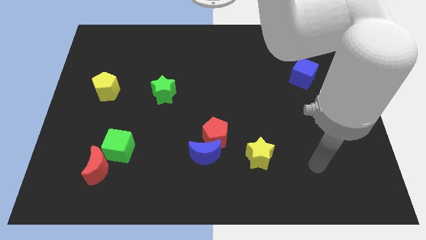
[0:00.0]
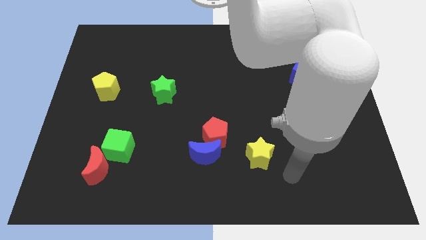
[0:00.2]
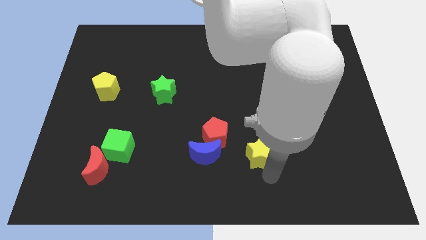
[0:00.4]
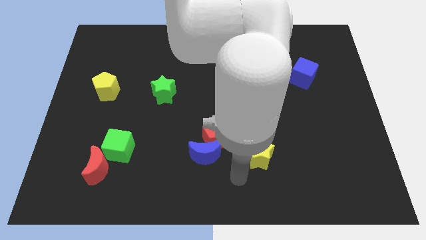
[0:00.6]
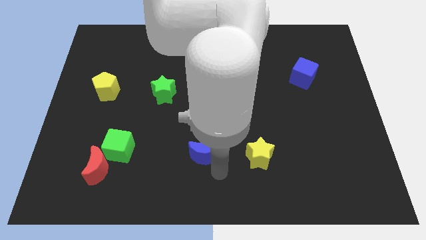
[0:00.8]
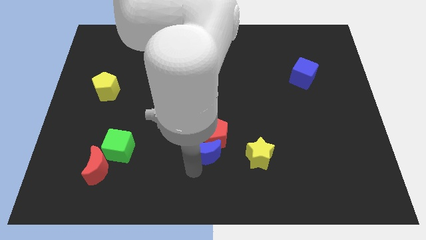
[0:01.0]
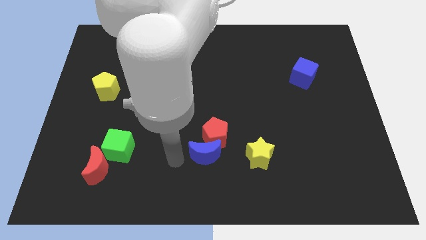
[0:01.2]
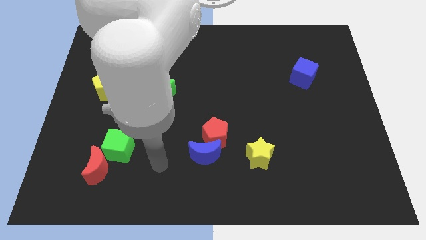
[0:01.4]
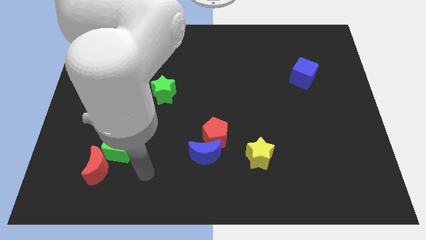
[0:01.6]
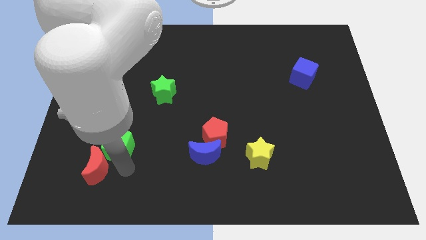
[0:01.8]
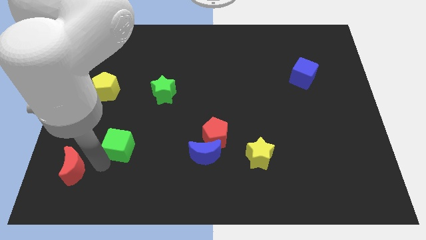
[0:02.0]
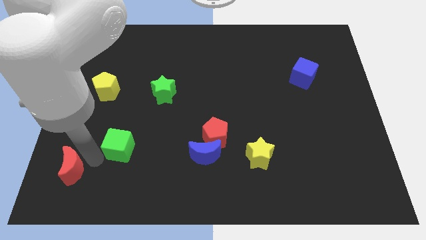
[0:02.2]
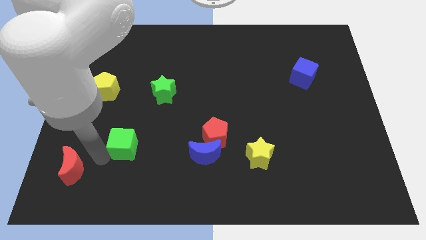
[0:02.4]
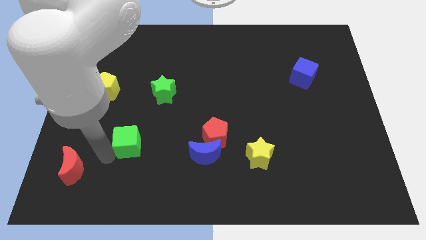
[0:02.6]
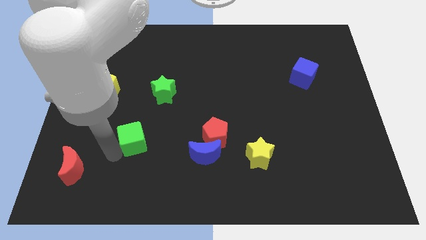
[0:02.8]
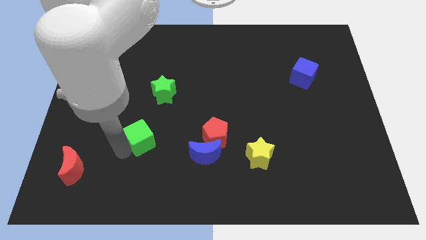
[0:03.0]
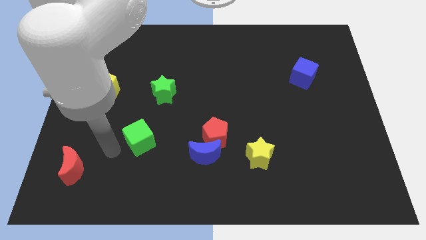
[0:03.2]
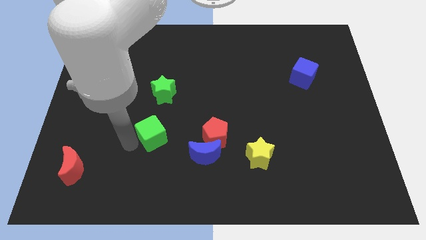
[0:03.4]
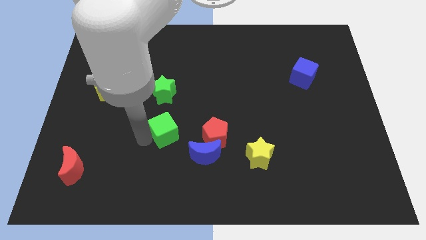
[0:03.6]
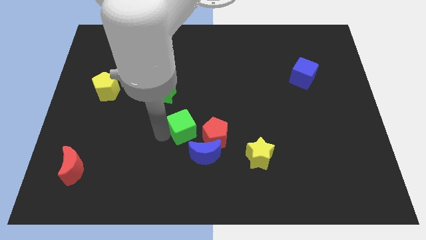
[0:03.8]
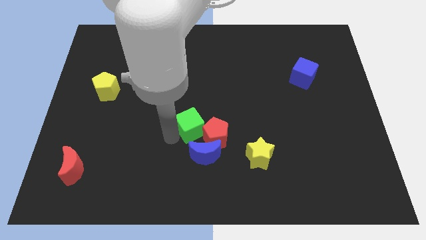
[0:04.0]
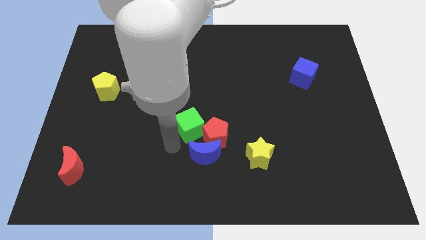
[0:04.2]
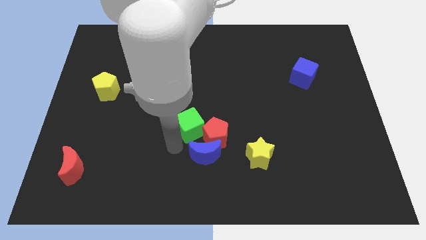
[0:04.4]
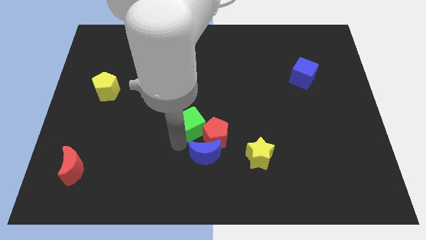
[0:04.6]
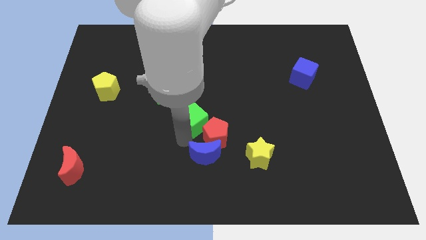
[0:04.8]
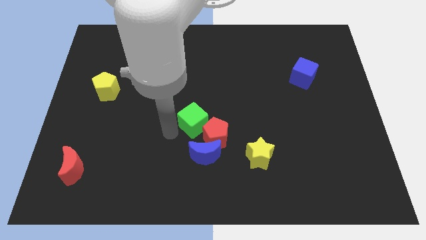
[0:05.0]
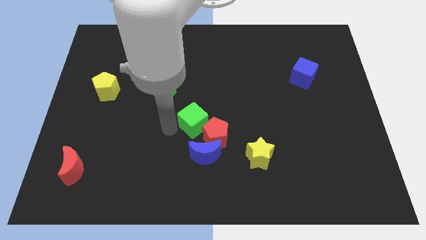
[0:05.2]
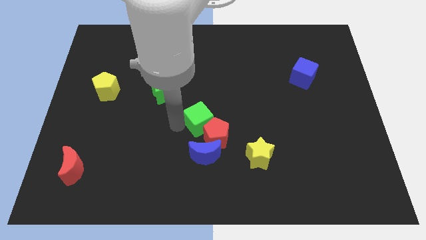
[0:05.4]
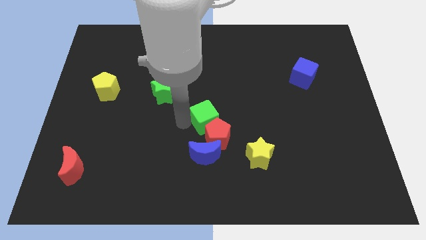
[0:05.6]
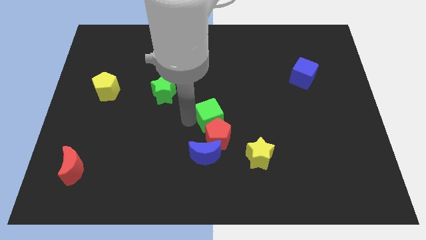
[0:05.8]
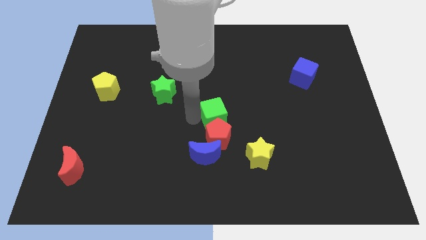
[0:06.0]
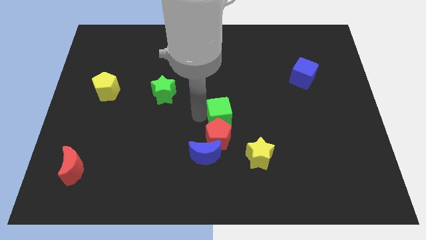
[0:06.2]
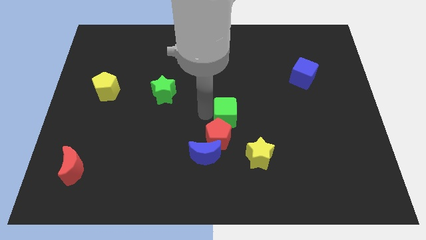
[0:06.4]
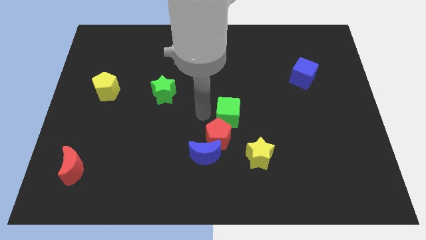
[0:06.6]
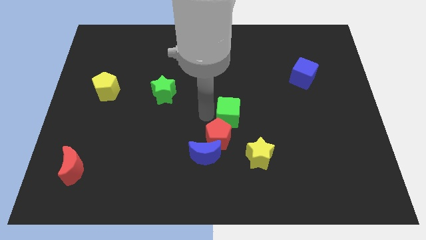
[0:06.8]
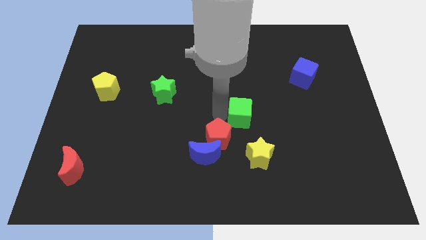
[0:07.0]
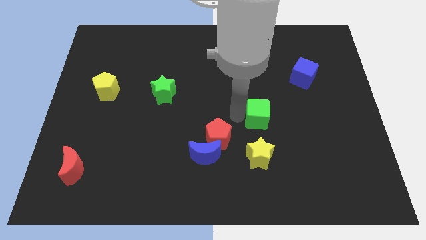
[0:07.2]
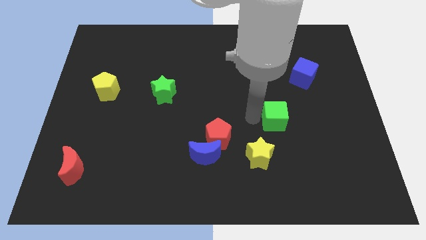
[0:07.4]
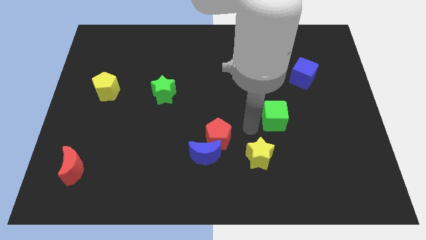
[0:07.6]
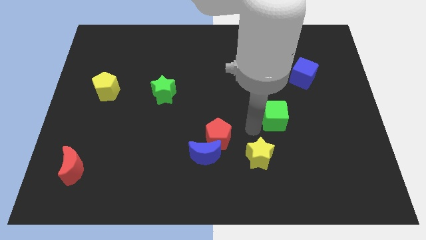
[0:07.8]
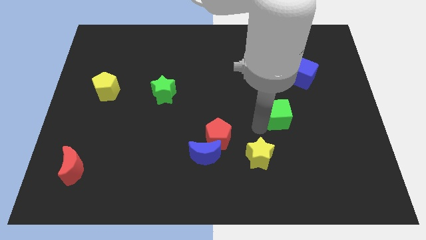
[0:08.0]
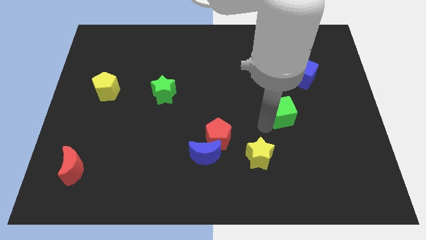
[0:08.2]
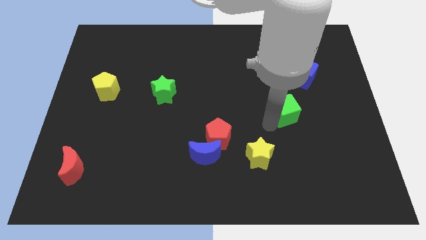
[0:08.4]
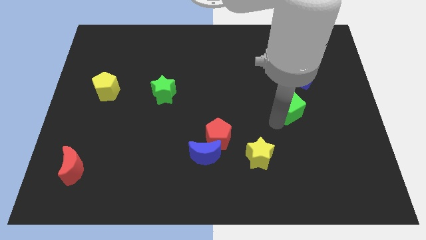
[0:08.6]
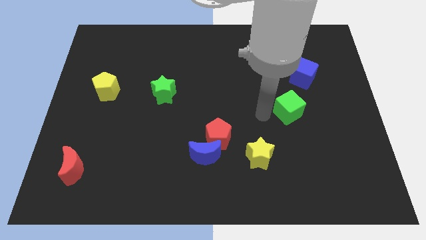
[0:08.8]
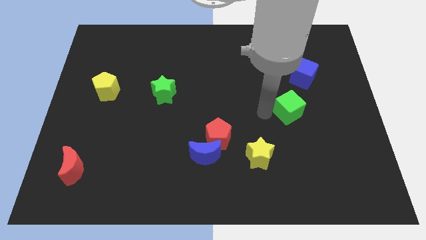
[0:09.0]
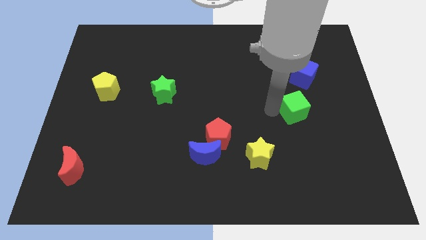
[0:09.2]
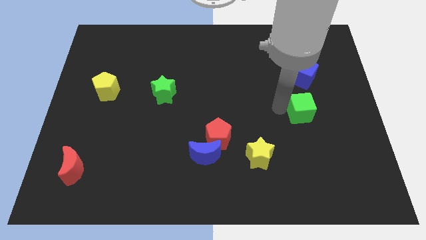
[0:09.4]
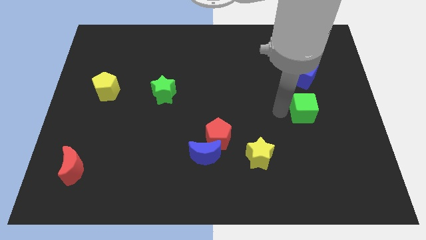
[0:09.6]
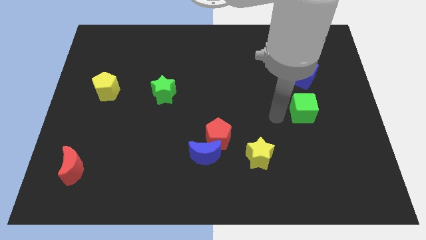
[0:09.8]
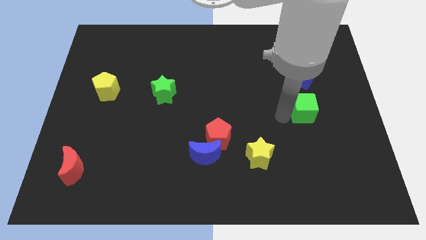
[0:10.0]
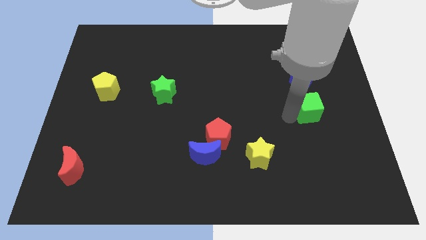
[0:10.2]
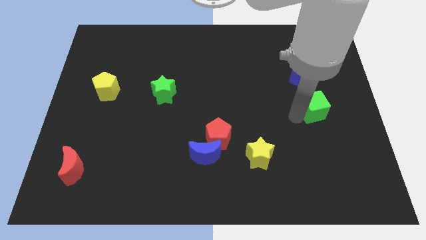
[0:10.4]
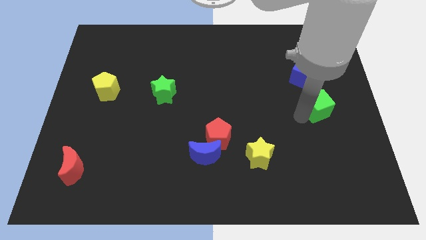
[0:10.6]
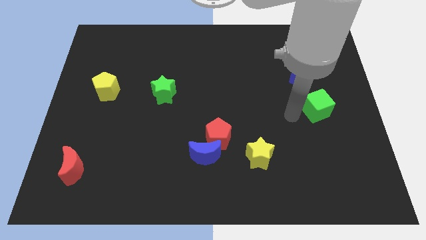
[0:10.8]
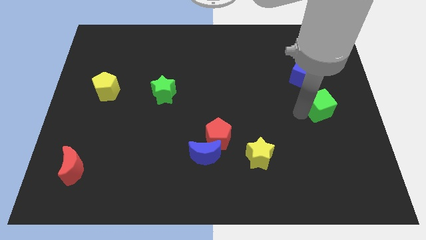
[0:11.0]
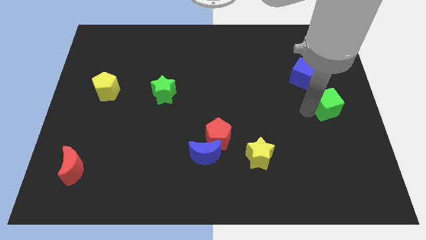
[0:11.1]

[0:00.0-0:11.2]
move the green cube to the right side
